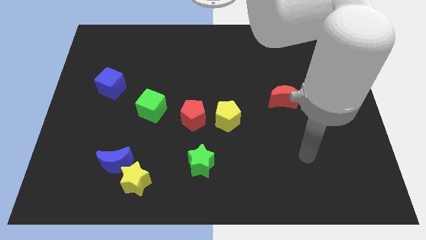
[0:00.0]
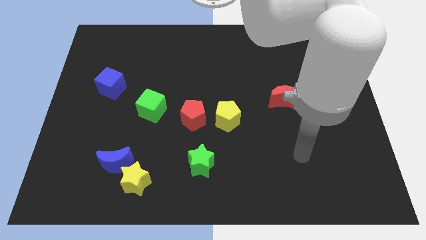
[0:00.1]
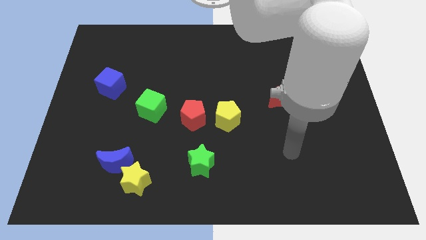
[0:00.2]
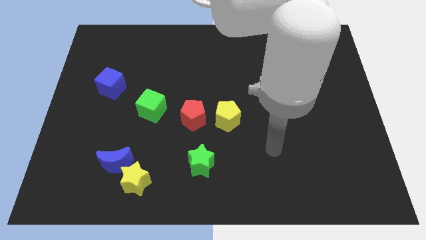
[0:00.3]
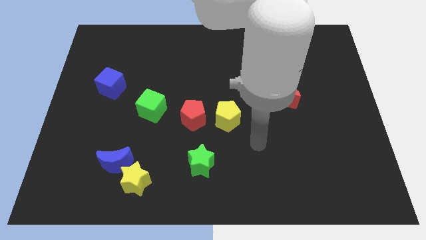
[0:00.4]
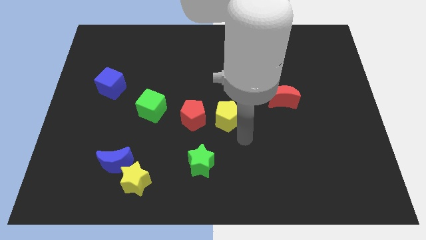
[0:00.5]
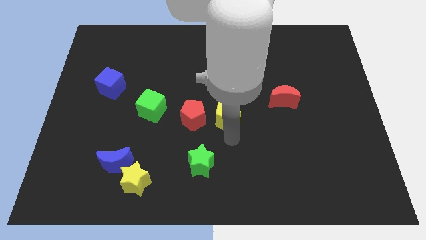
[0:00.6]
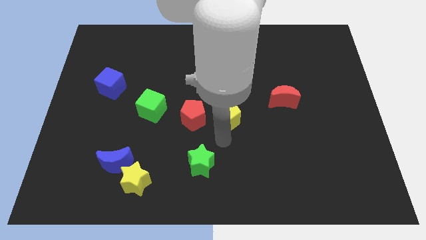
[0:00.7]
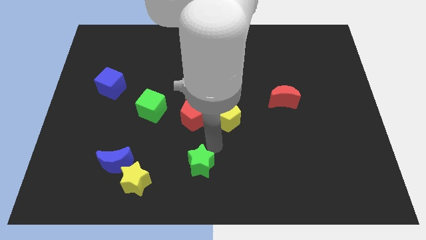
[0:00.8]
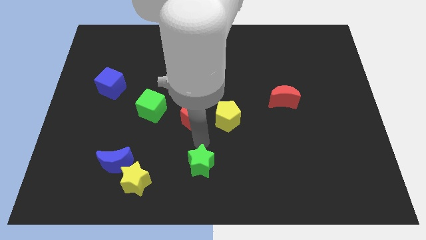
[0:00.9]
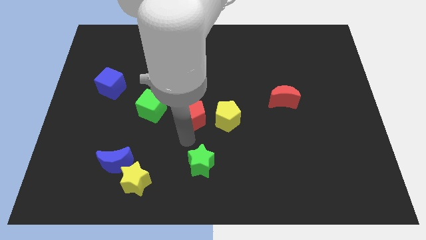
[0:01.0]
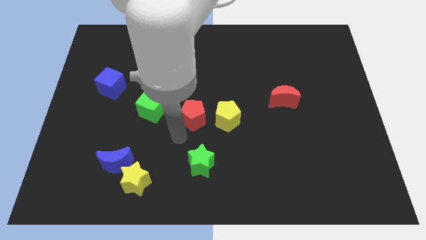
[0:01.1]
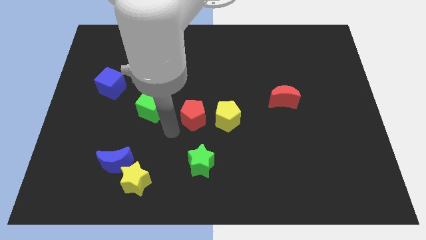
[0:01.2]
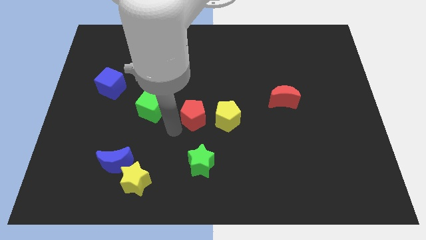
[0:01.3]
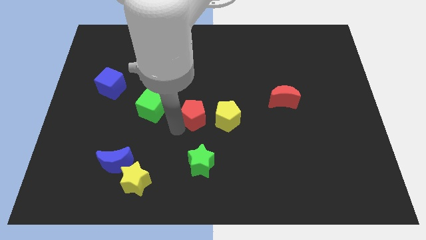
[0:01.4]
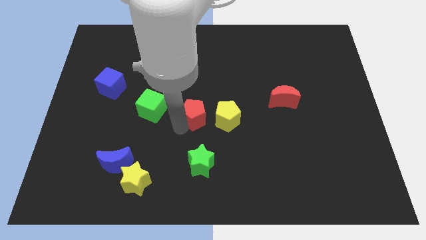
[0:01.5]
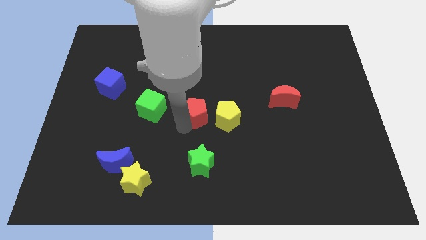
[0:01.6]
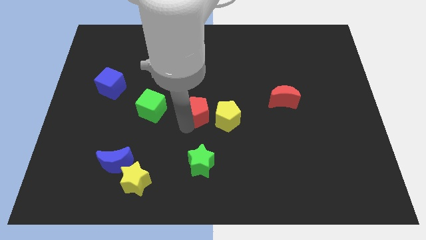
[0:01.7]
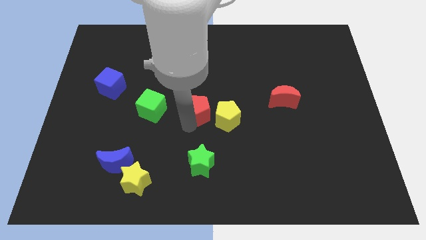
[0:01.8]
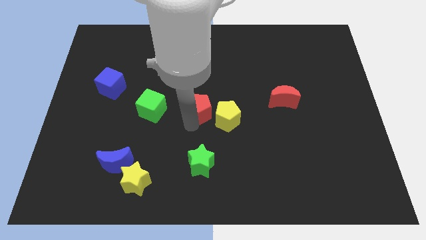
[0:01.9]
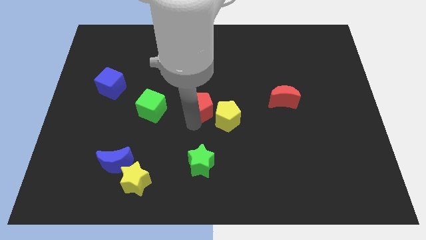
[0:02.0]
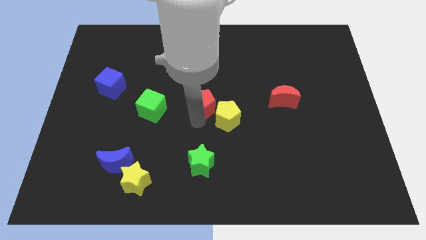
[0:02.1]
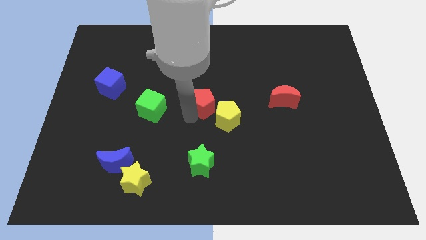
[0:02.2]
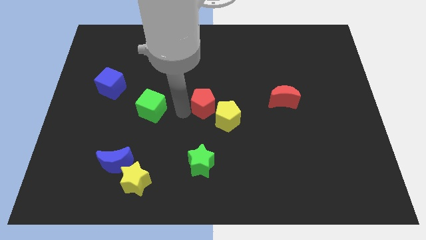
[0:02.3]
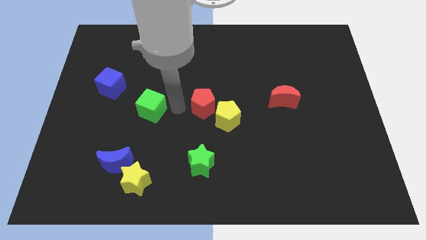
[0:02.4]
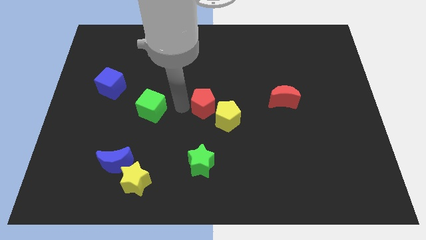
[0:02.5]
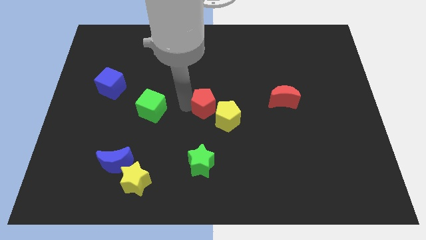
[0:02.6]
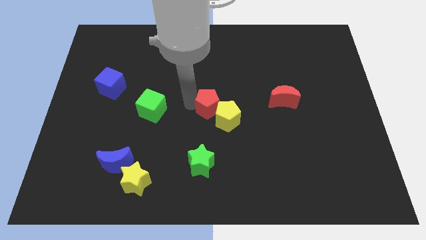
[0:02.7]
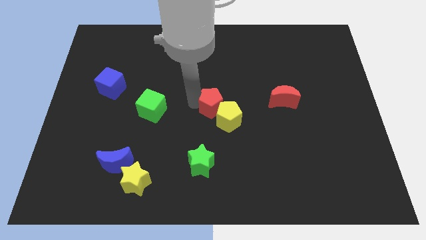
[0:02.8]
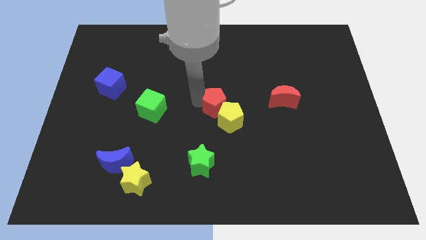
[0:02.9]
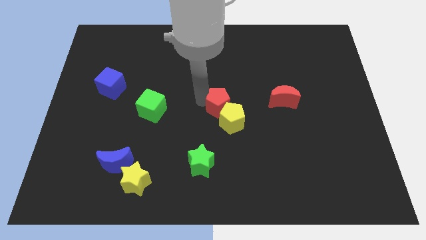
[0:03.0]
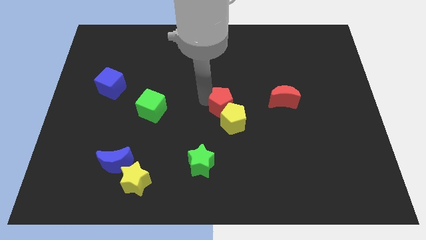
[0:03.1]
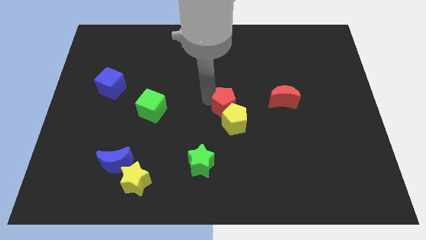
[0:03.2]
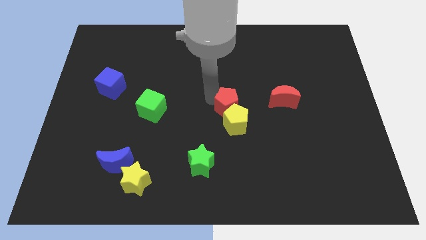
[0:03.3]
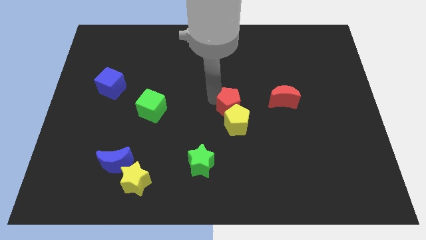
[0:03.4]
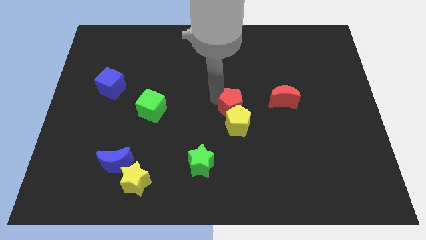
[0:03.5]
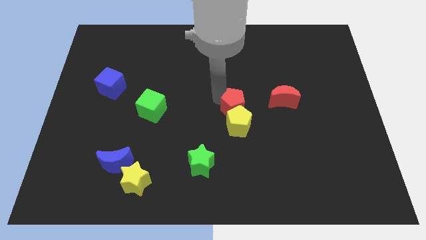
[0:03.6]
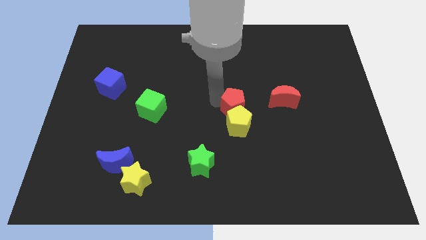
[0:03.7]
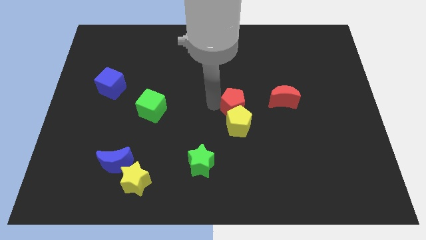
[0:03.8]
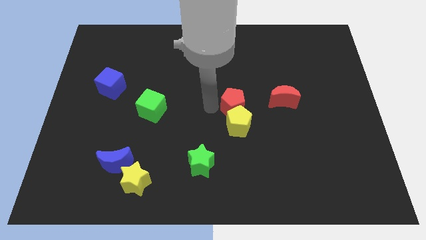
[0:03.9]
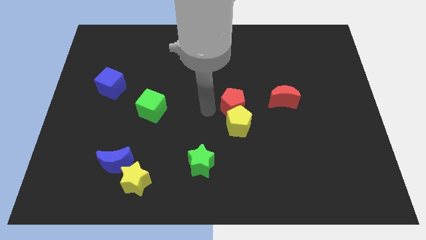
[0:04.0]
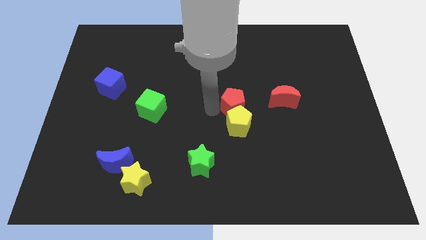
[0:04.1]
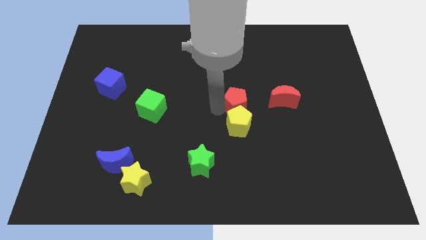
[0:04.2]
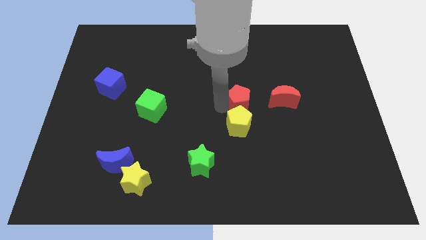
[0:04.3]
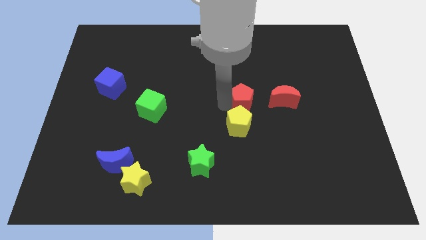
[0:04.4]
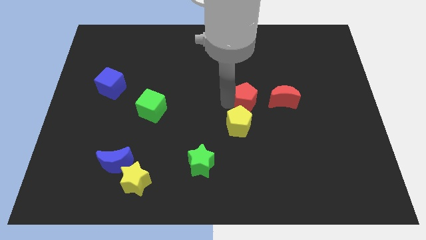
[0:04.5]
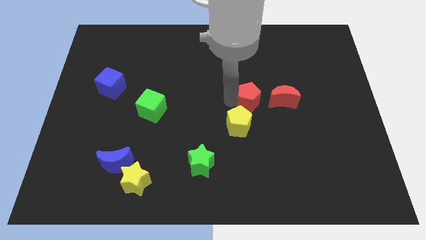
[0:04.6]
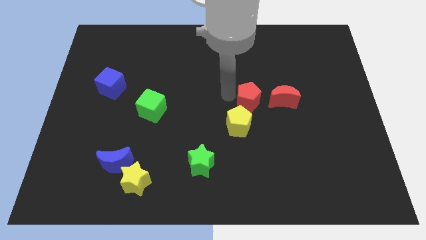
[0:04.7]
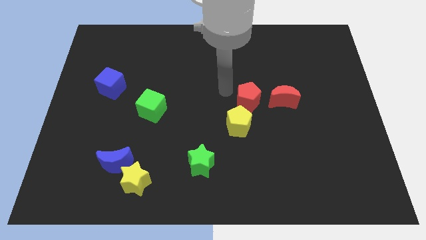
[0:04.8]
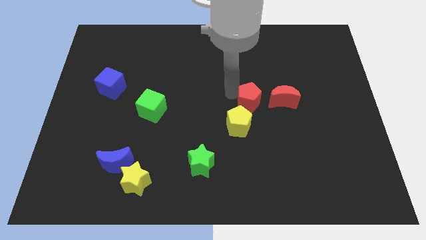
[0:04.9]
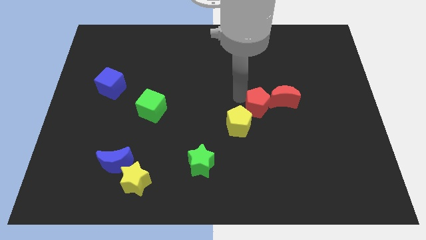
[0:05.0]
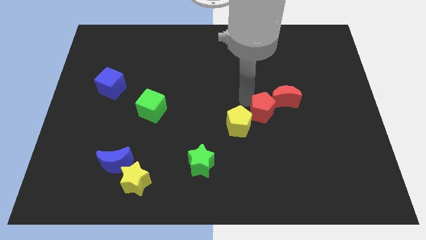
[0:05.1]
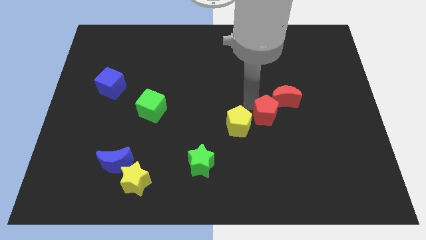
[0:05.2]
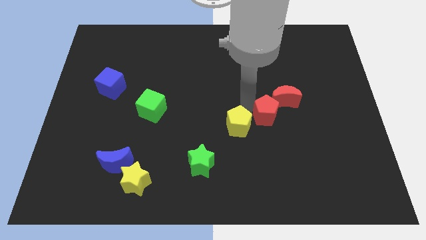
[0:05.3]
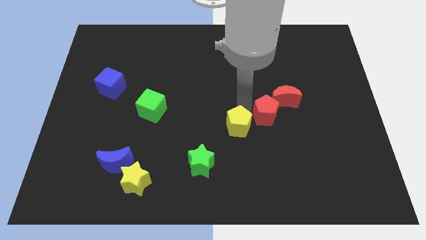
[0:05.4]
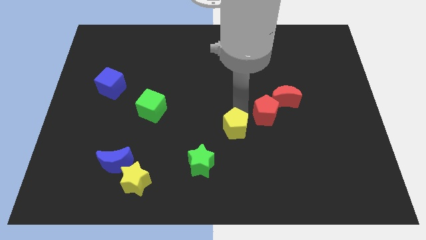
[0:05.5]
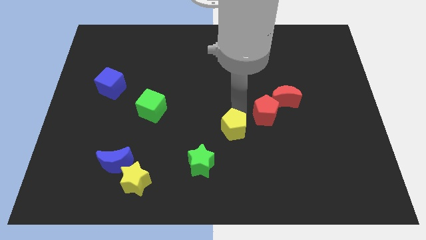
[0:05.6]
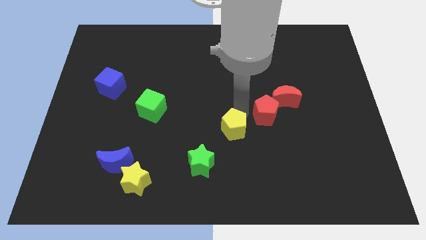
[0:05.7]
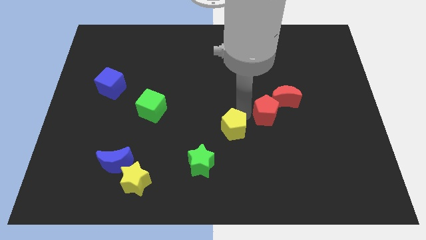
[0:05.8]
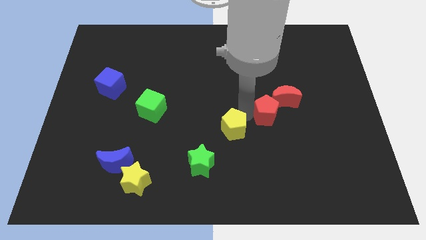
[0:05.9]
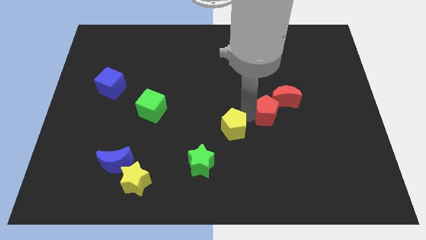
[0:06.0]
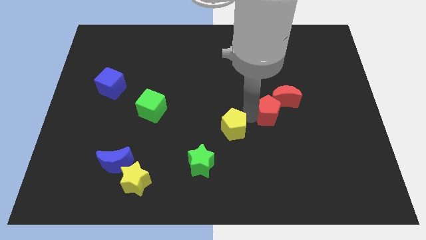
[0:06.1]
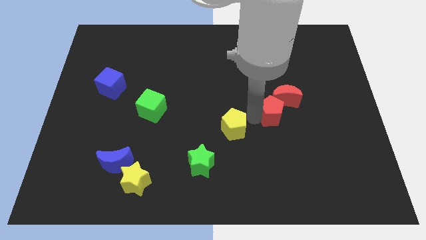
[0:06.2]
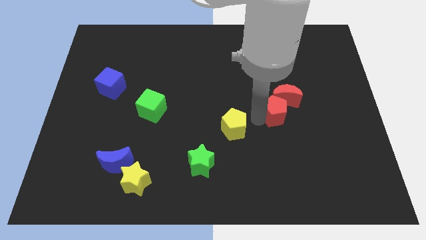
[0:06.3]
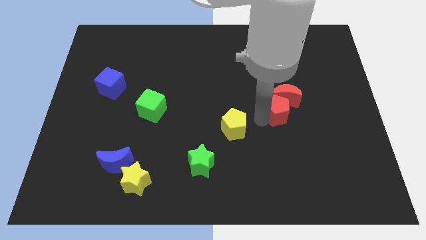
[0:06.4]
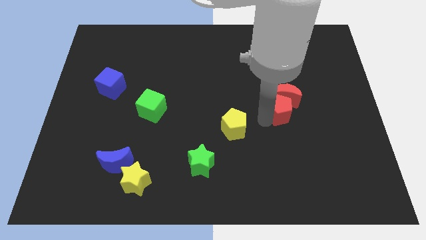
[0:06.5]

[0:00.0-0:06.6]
push the red pentagon right

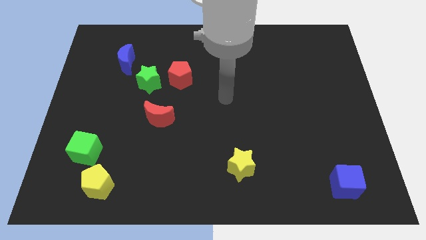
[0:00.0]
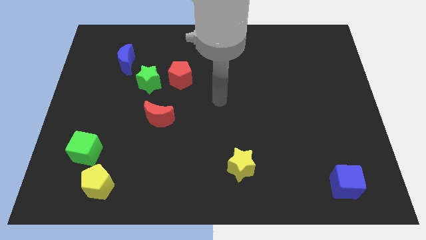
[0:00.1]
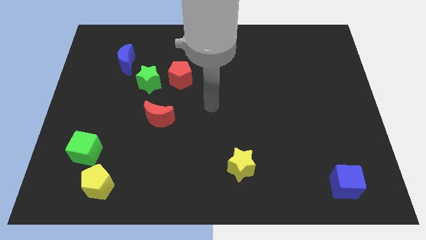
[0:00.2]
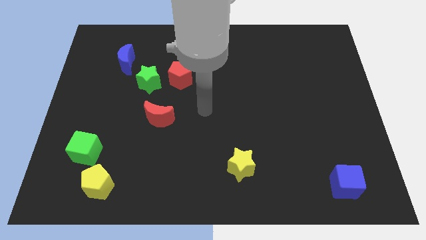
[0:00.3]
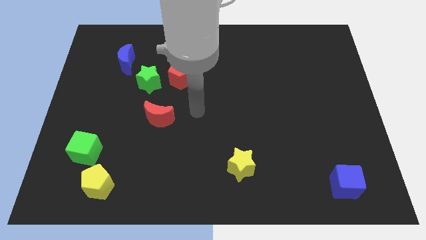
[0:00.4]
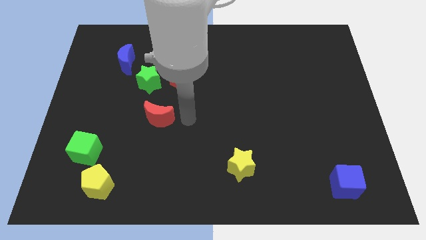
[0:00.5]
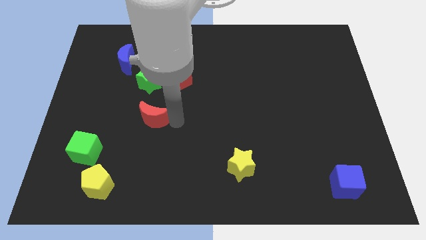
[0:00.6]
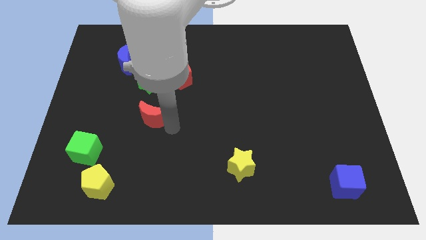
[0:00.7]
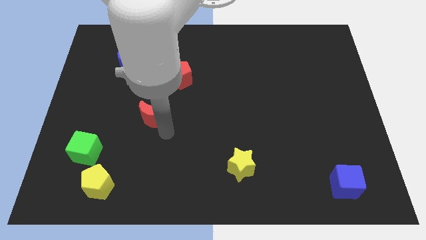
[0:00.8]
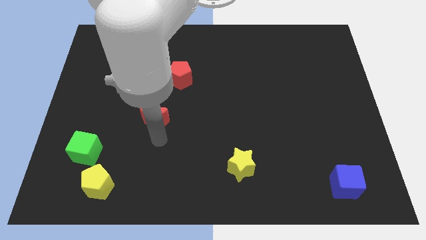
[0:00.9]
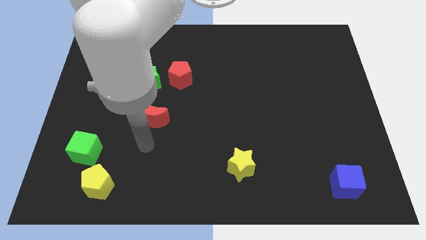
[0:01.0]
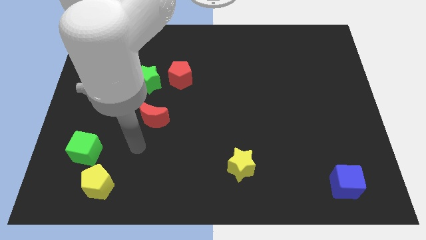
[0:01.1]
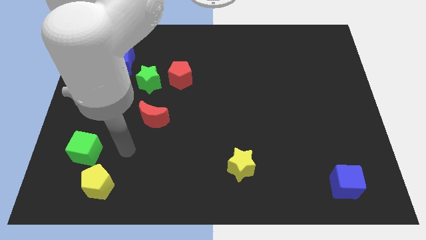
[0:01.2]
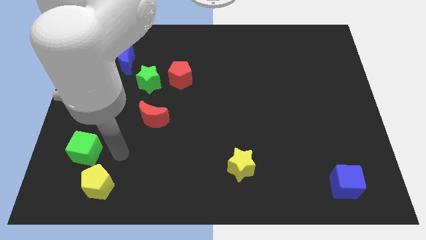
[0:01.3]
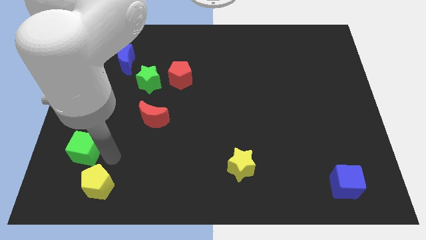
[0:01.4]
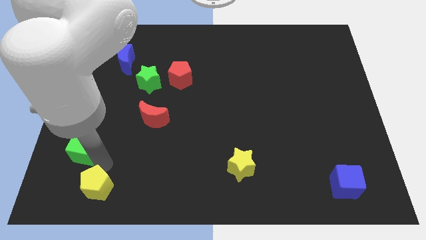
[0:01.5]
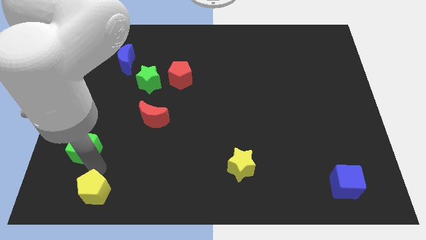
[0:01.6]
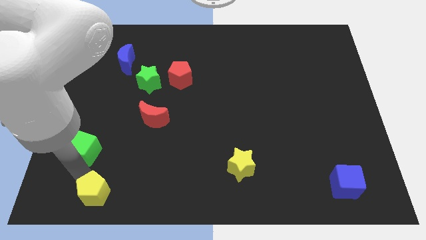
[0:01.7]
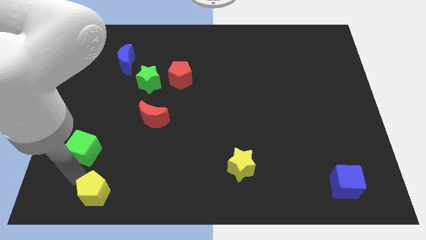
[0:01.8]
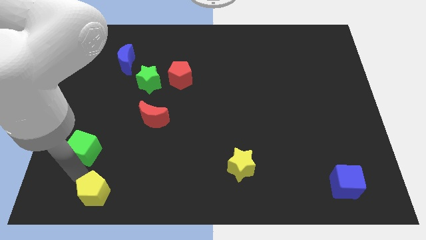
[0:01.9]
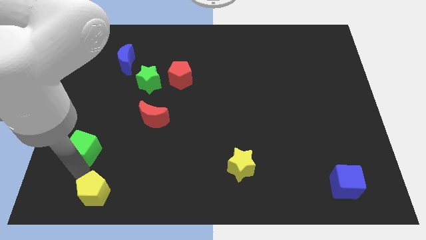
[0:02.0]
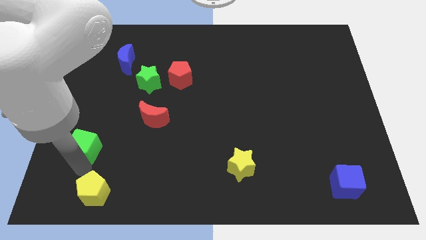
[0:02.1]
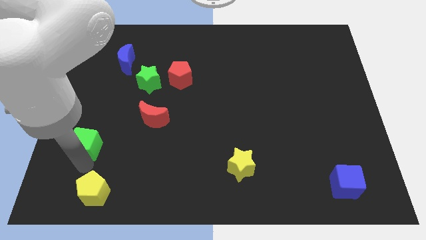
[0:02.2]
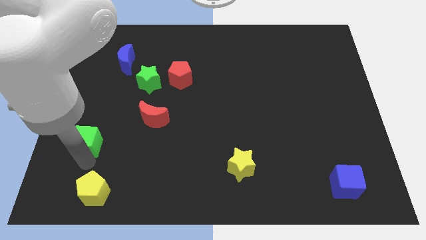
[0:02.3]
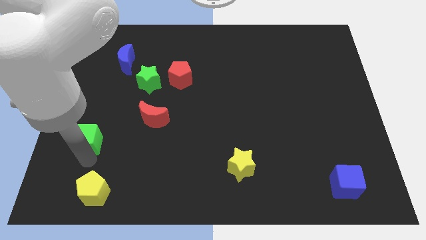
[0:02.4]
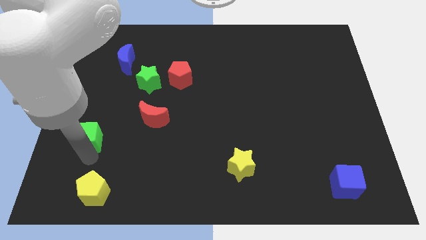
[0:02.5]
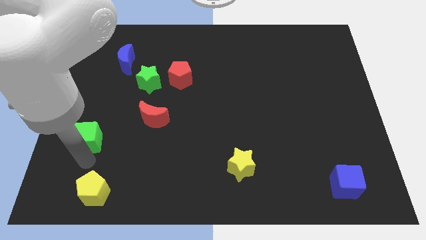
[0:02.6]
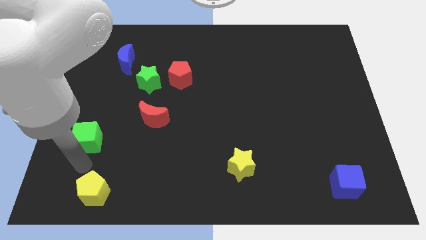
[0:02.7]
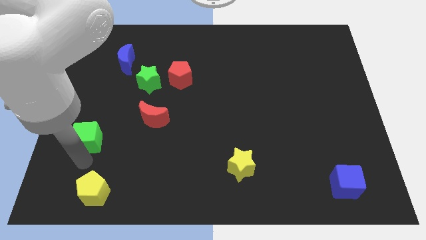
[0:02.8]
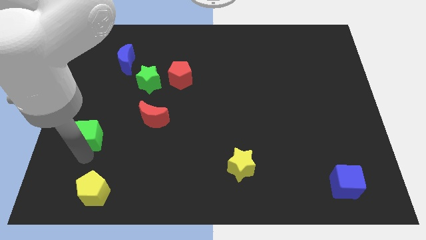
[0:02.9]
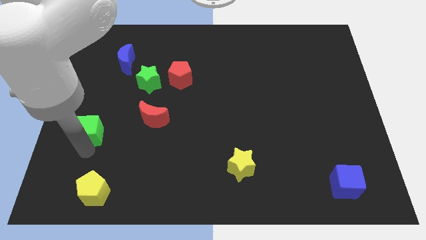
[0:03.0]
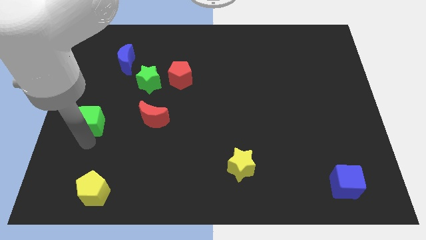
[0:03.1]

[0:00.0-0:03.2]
move the green cube up somewhat
